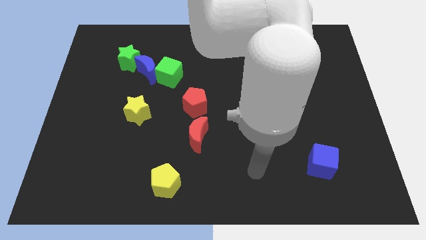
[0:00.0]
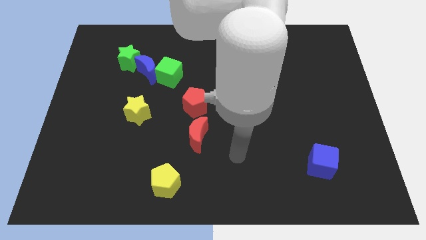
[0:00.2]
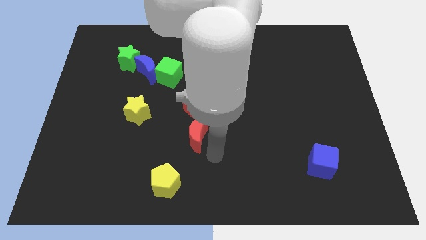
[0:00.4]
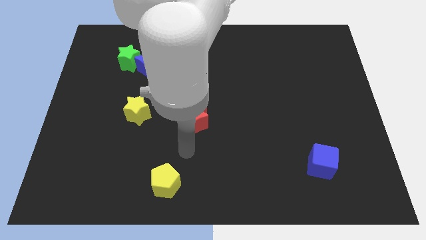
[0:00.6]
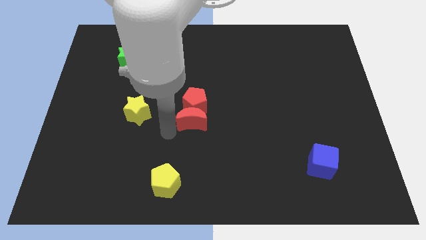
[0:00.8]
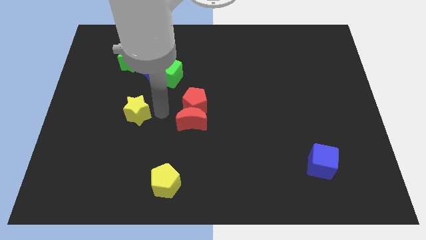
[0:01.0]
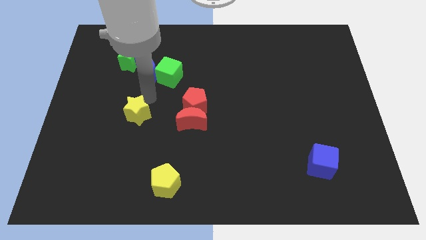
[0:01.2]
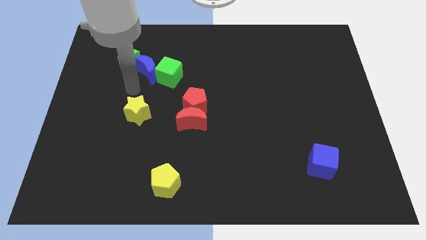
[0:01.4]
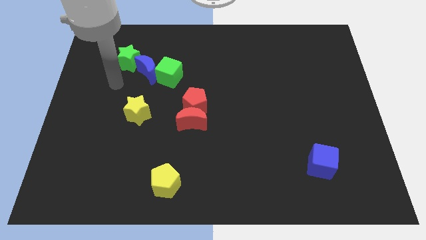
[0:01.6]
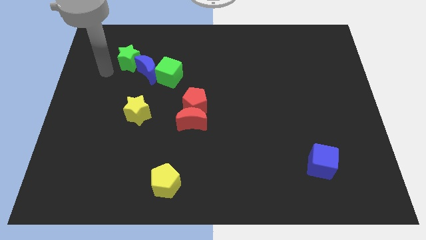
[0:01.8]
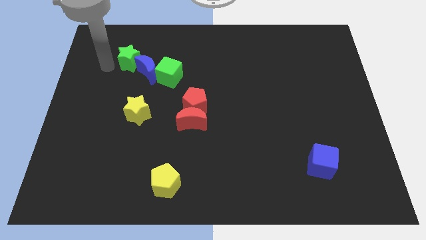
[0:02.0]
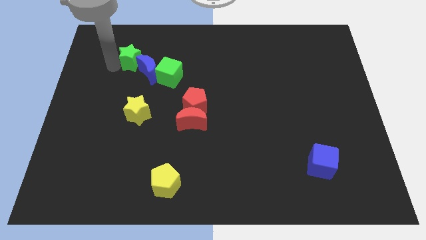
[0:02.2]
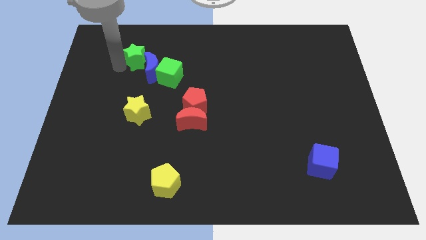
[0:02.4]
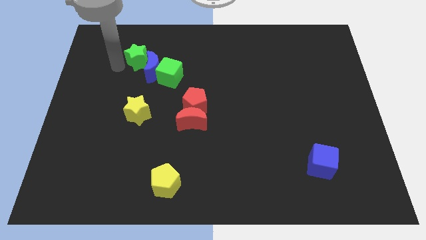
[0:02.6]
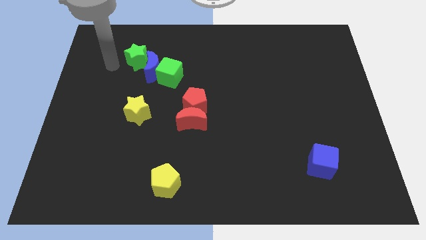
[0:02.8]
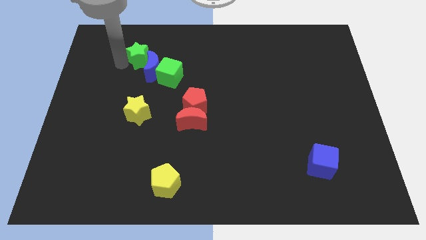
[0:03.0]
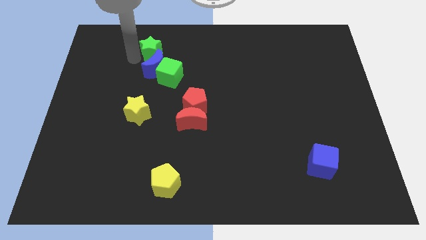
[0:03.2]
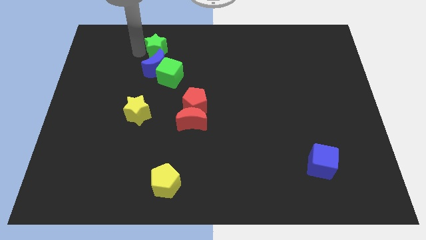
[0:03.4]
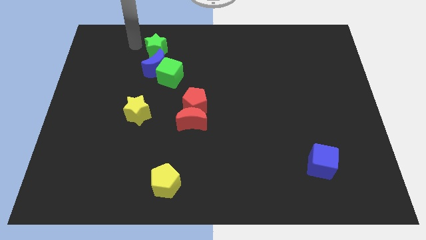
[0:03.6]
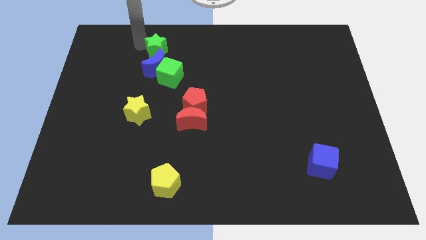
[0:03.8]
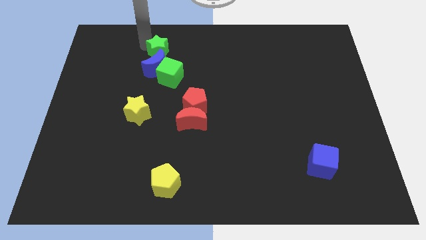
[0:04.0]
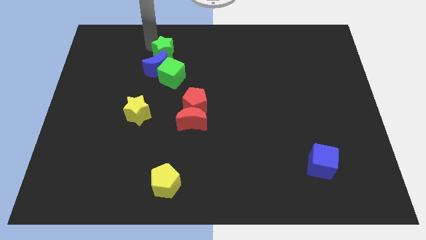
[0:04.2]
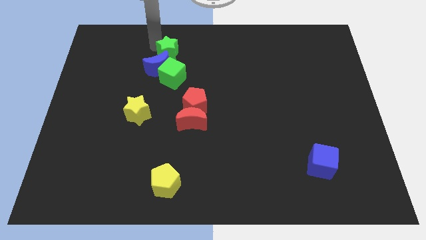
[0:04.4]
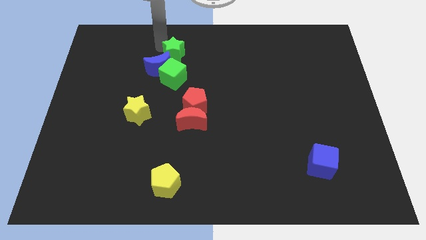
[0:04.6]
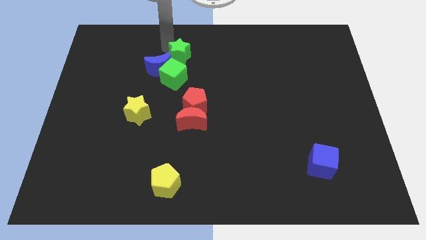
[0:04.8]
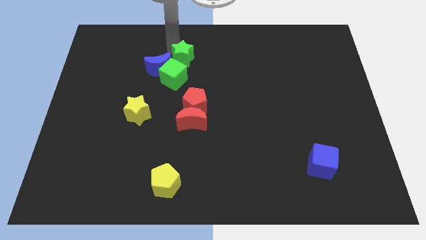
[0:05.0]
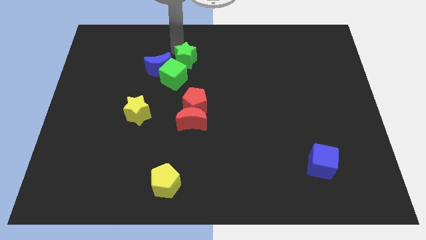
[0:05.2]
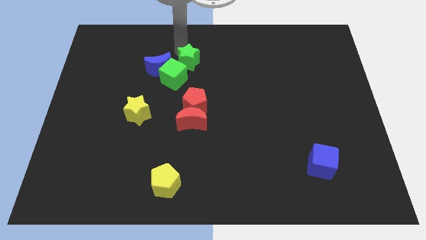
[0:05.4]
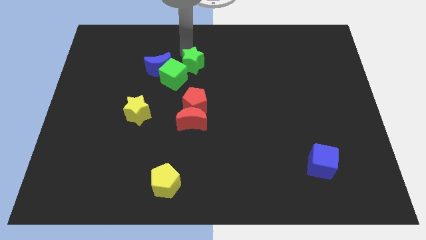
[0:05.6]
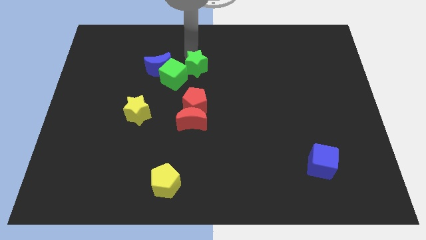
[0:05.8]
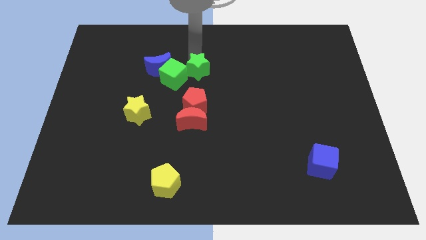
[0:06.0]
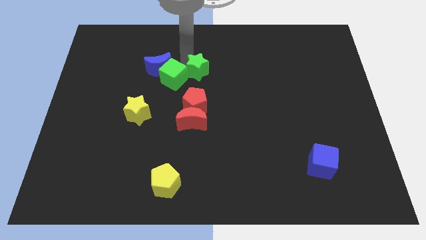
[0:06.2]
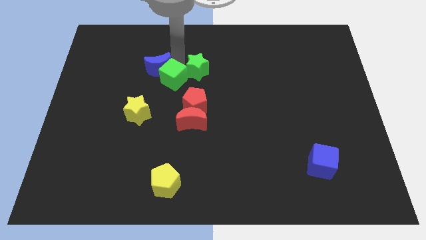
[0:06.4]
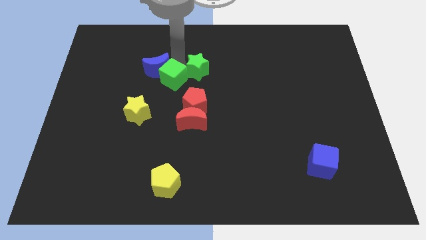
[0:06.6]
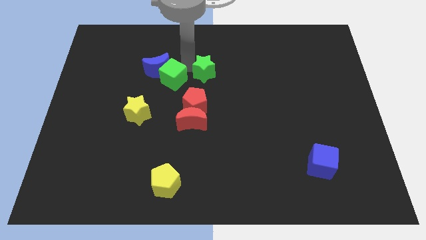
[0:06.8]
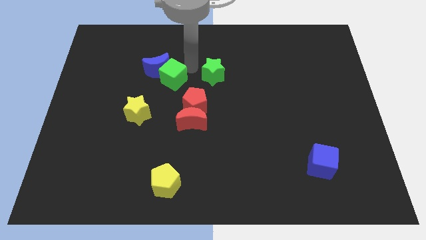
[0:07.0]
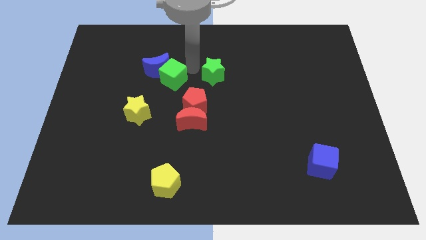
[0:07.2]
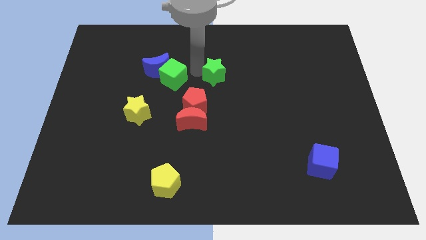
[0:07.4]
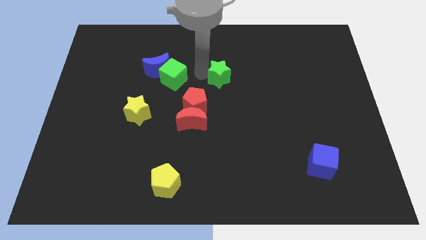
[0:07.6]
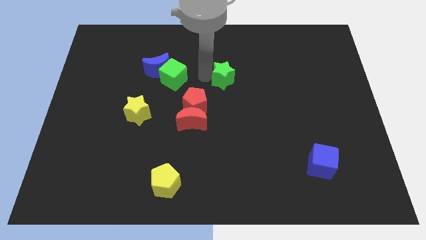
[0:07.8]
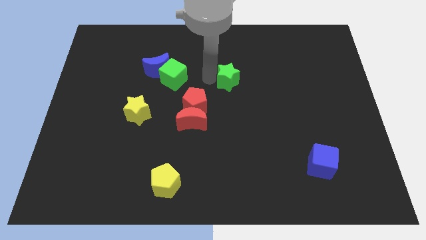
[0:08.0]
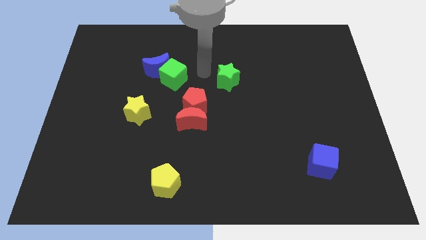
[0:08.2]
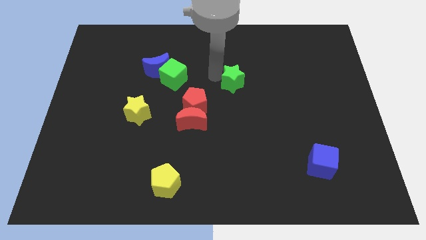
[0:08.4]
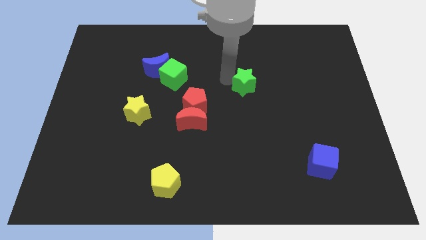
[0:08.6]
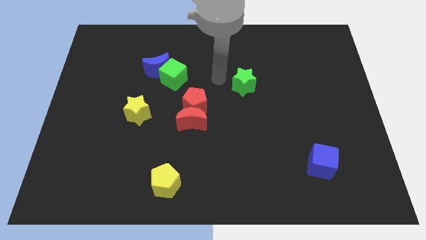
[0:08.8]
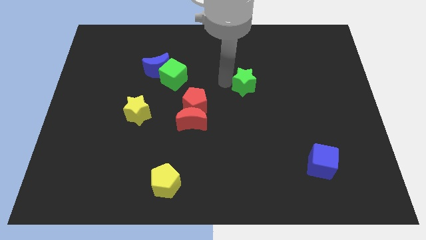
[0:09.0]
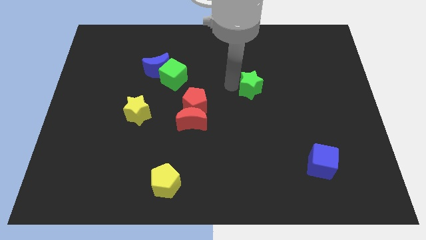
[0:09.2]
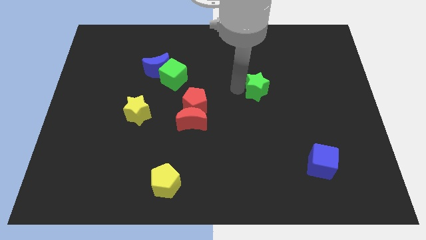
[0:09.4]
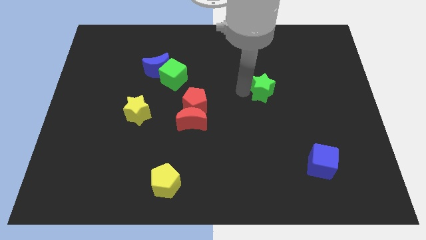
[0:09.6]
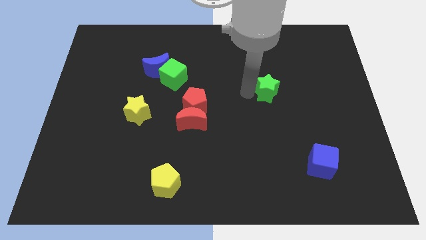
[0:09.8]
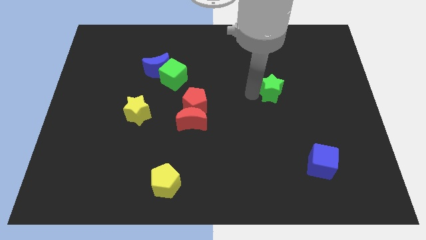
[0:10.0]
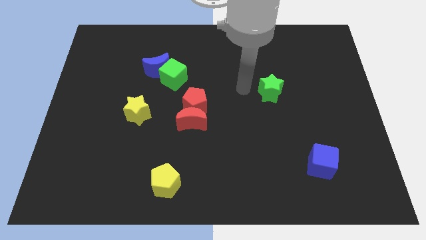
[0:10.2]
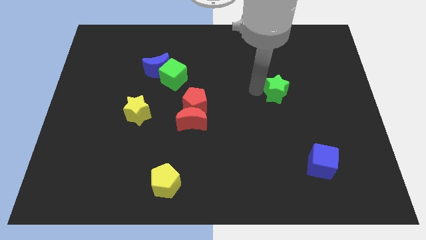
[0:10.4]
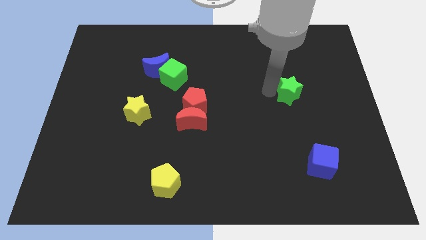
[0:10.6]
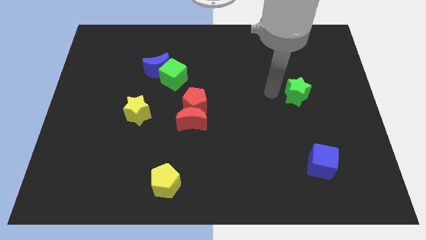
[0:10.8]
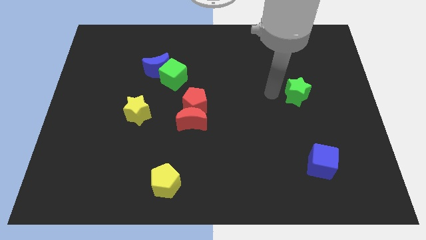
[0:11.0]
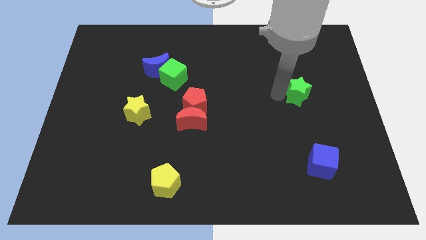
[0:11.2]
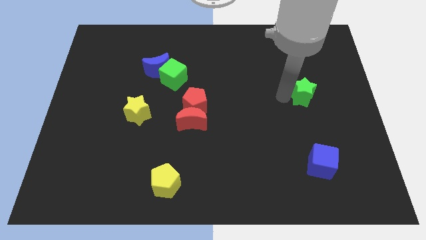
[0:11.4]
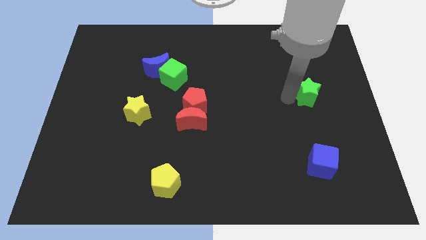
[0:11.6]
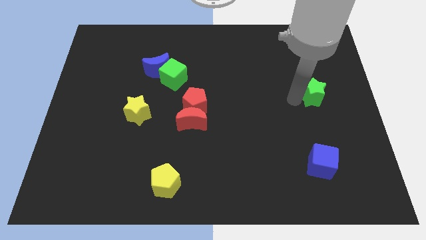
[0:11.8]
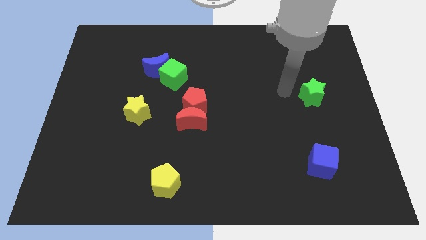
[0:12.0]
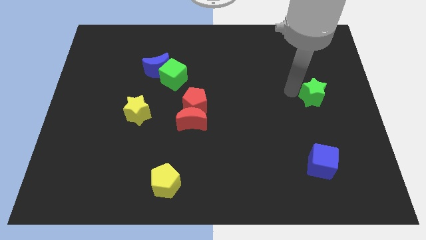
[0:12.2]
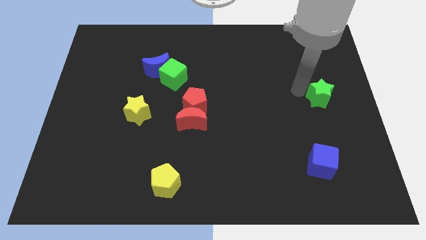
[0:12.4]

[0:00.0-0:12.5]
push the green star to the center right

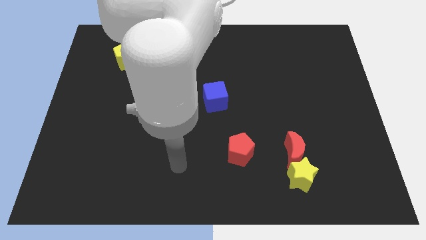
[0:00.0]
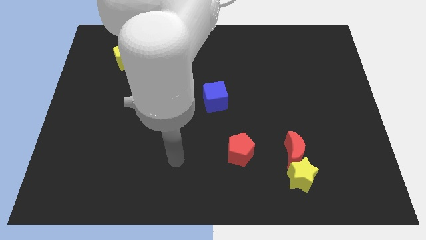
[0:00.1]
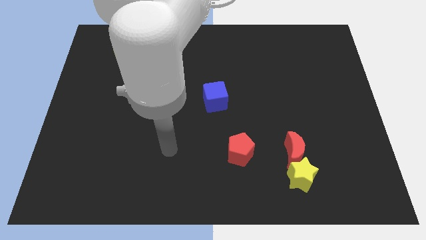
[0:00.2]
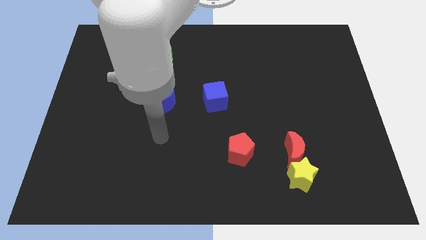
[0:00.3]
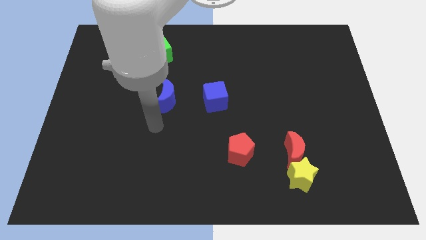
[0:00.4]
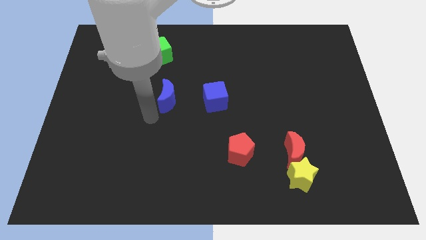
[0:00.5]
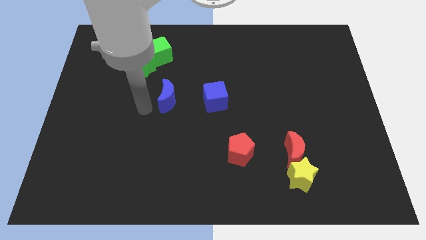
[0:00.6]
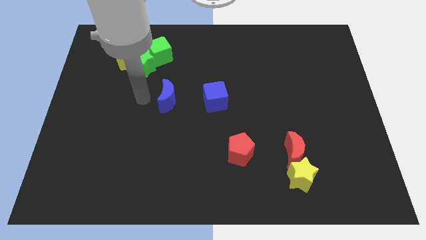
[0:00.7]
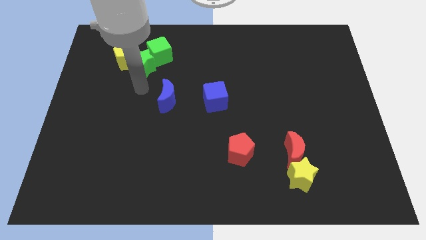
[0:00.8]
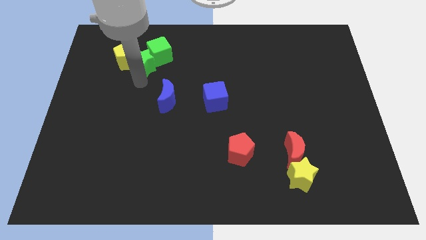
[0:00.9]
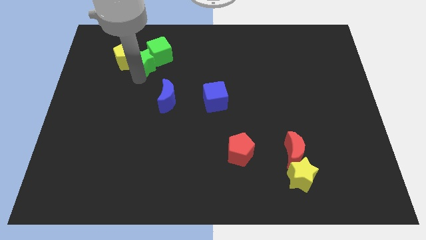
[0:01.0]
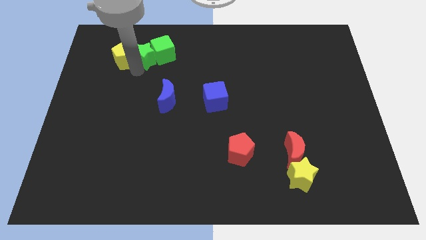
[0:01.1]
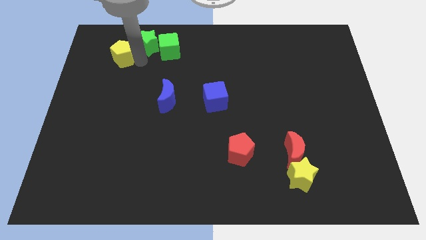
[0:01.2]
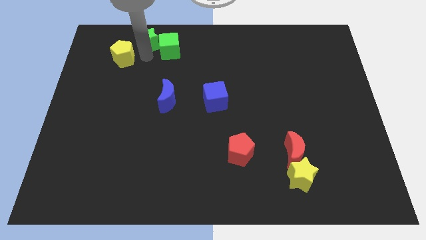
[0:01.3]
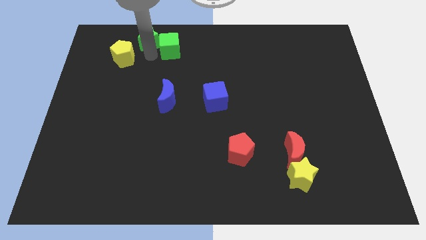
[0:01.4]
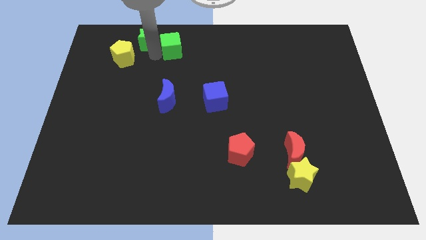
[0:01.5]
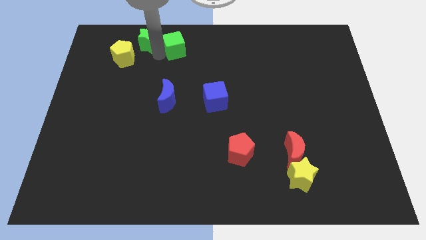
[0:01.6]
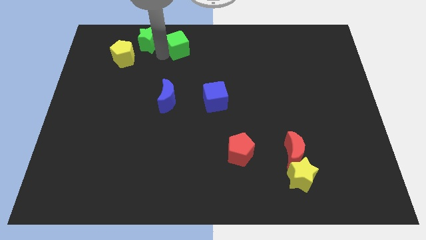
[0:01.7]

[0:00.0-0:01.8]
slide the green cube to the top
